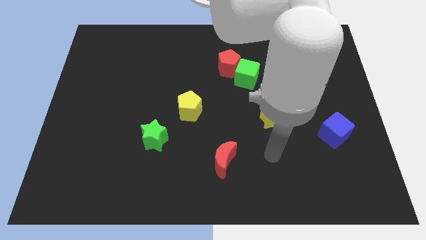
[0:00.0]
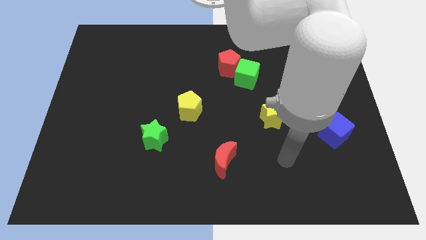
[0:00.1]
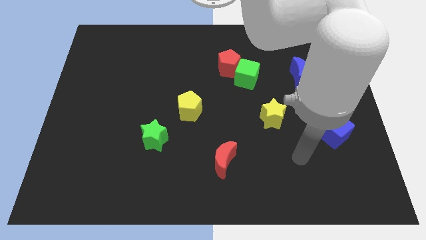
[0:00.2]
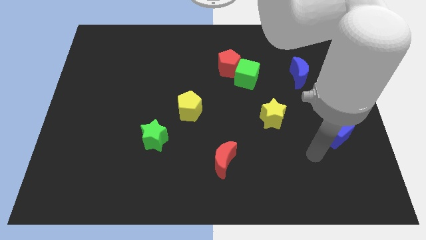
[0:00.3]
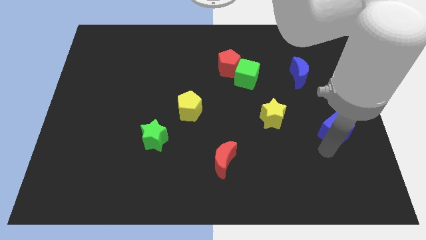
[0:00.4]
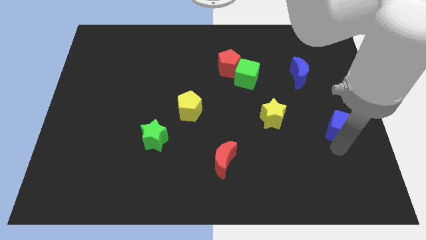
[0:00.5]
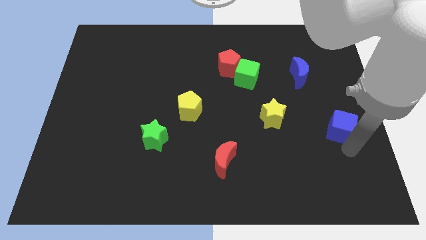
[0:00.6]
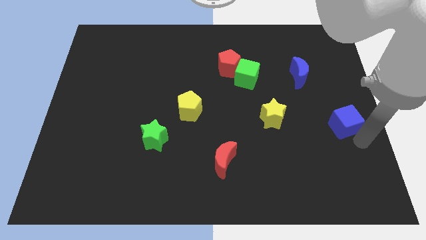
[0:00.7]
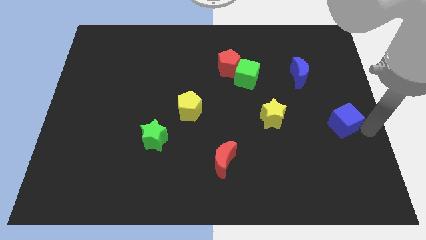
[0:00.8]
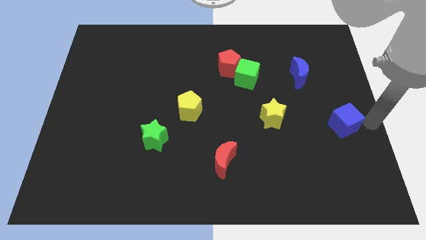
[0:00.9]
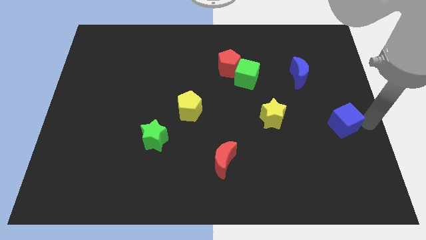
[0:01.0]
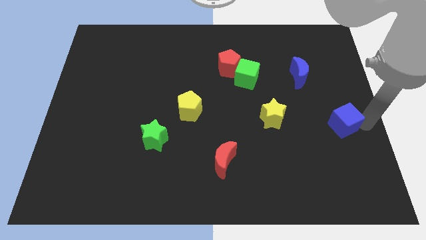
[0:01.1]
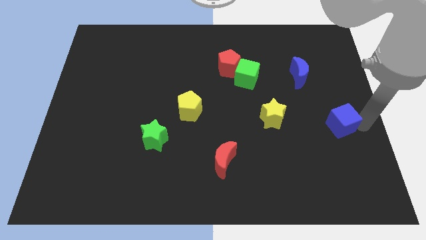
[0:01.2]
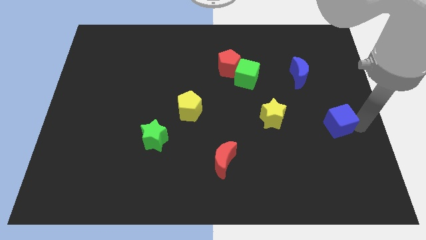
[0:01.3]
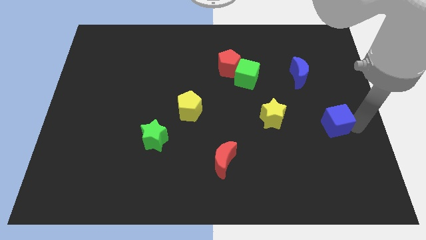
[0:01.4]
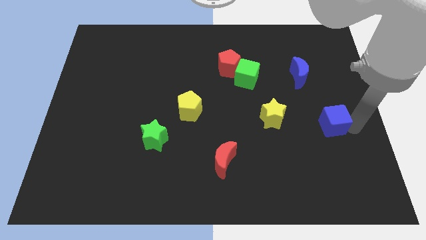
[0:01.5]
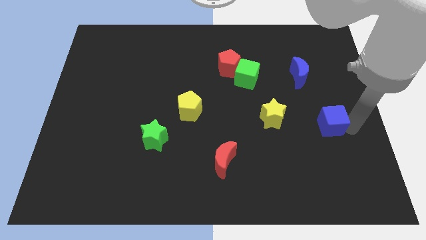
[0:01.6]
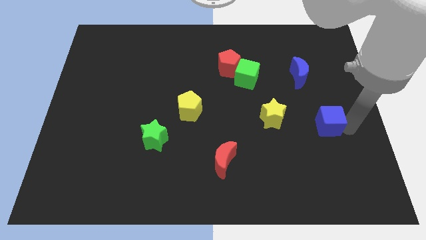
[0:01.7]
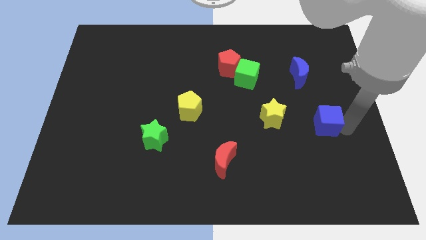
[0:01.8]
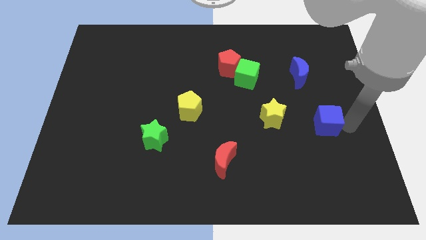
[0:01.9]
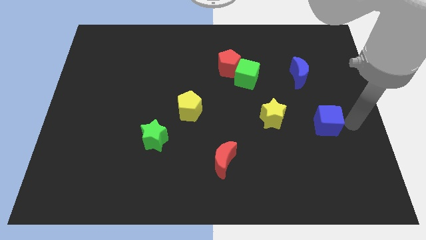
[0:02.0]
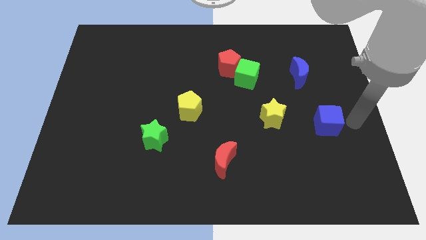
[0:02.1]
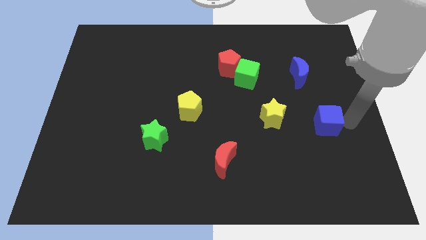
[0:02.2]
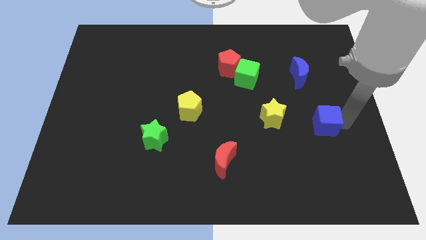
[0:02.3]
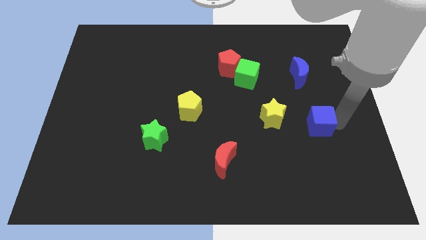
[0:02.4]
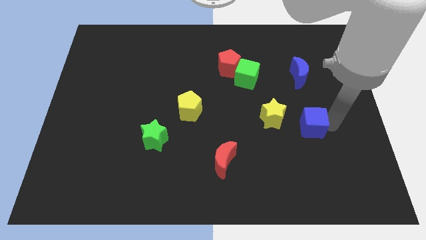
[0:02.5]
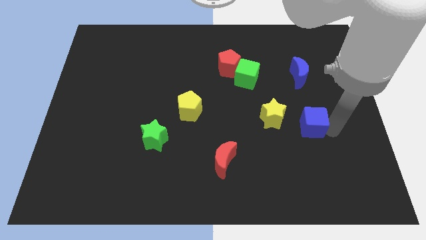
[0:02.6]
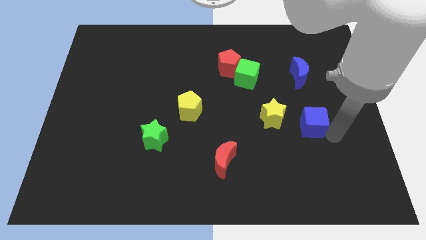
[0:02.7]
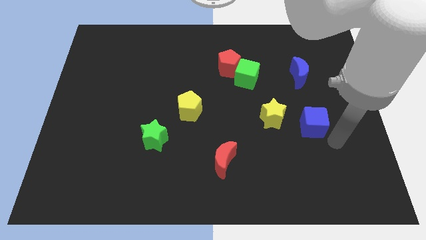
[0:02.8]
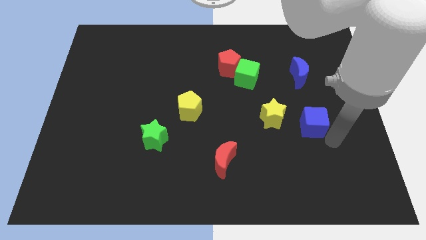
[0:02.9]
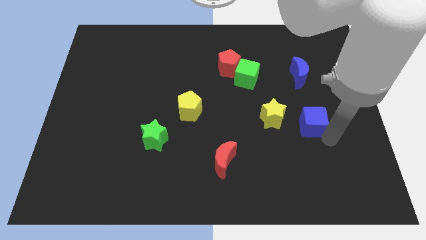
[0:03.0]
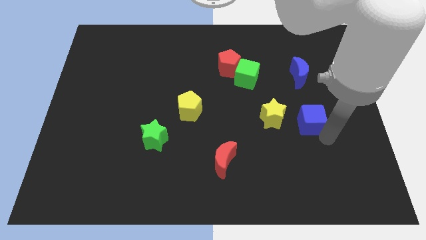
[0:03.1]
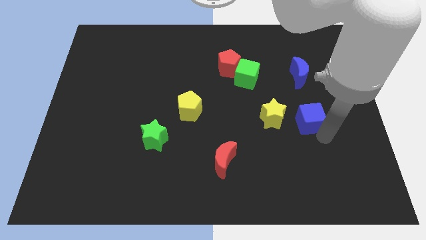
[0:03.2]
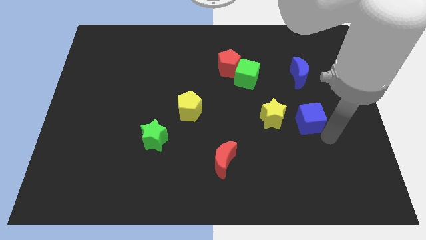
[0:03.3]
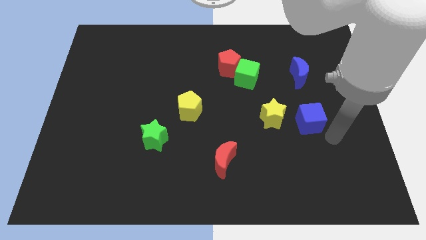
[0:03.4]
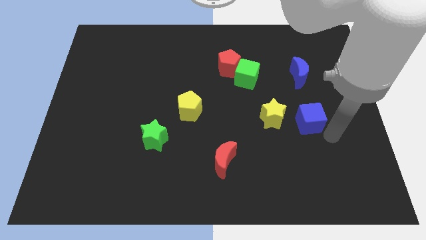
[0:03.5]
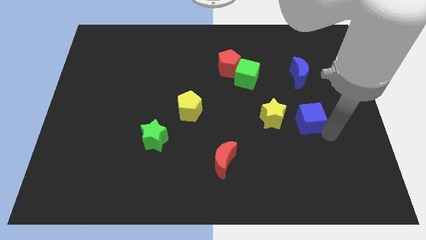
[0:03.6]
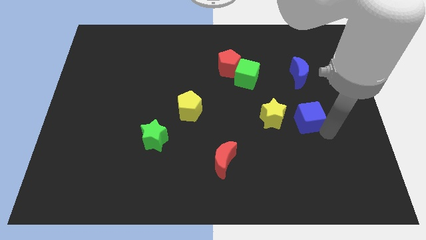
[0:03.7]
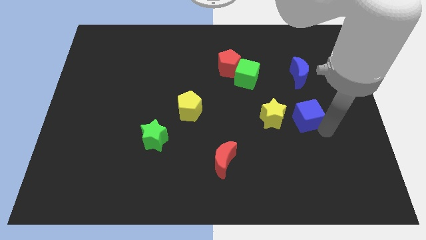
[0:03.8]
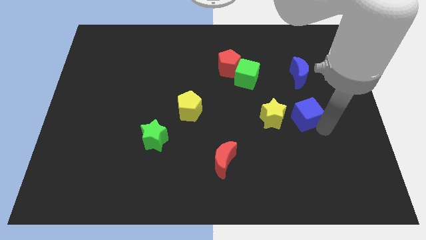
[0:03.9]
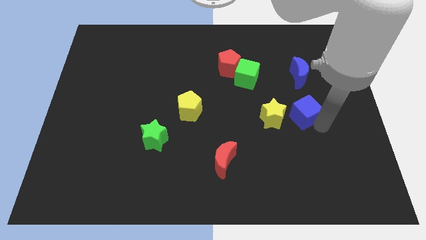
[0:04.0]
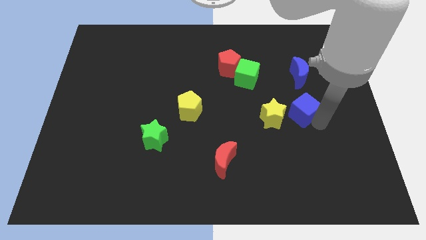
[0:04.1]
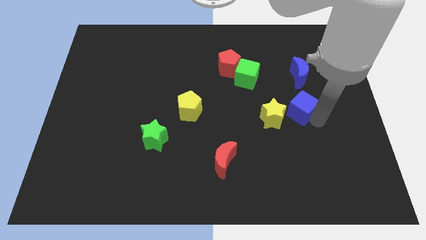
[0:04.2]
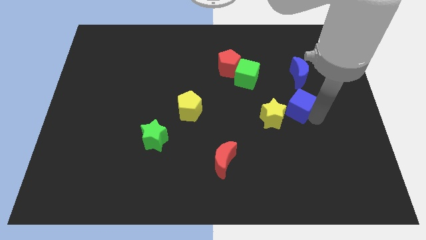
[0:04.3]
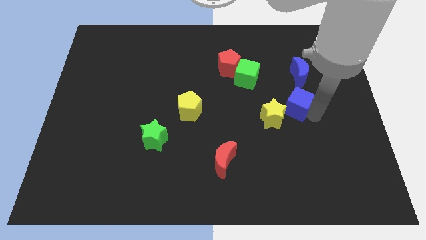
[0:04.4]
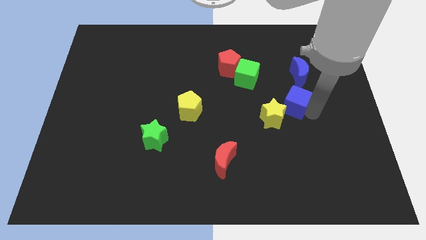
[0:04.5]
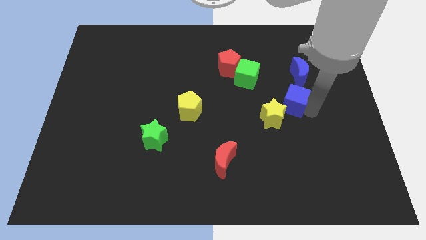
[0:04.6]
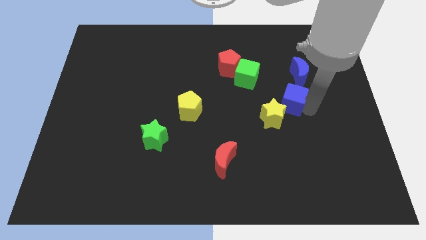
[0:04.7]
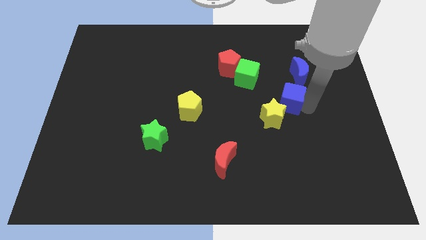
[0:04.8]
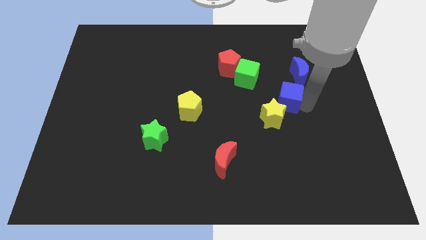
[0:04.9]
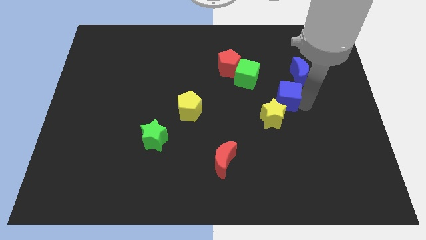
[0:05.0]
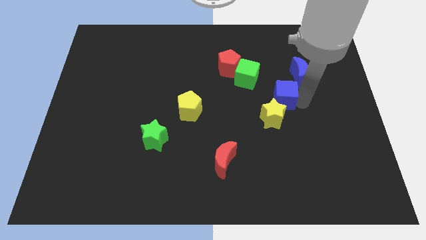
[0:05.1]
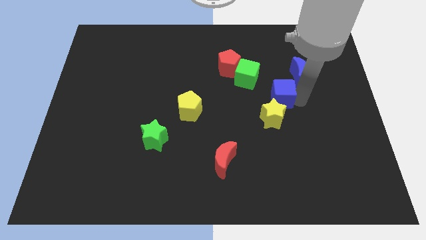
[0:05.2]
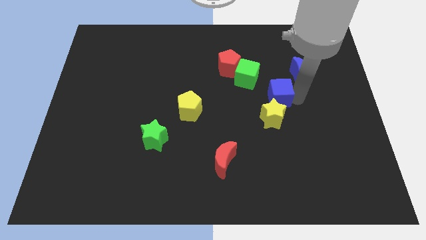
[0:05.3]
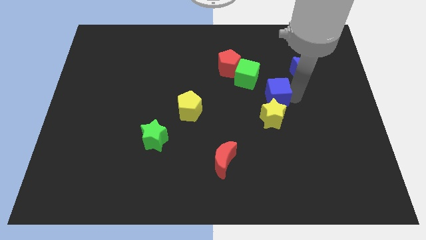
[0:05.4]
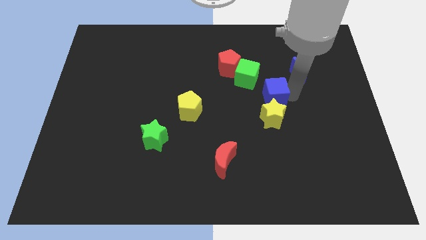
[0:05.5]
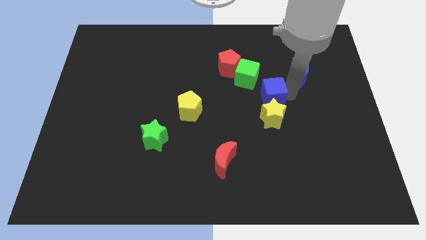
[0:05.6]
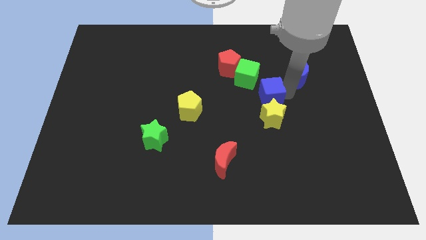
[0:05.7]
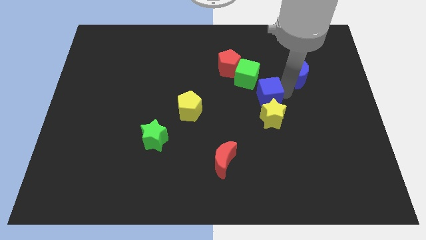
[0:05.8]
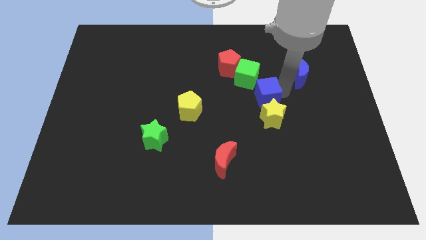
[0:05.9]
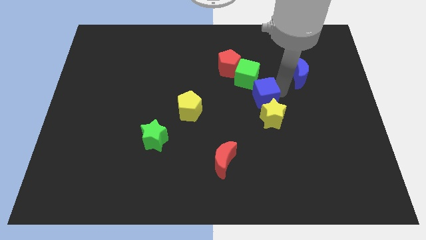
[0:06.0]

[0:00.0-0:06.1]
put the blue cube to the center
